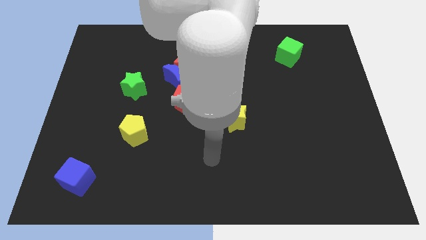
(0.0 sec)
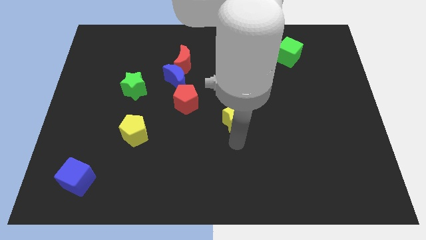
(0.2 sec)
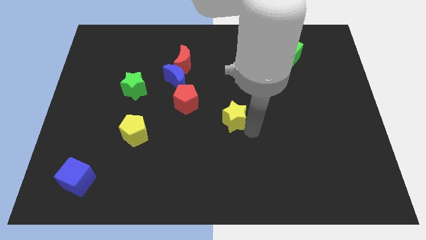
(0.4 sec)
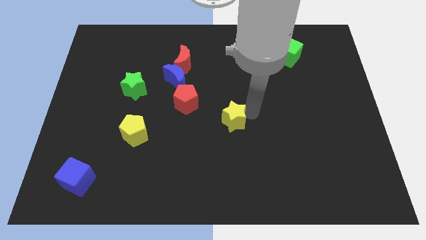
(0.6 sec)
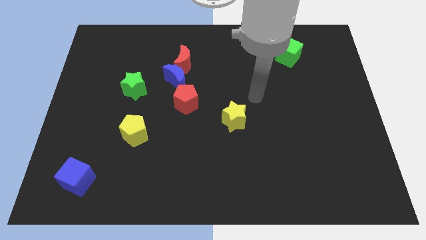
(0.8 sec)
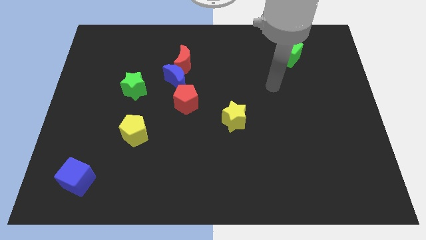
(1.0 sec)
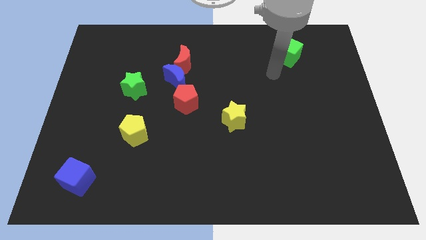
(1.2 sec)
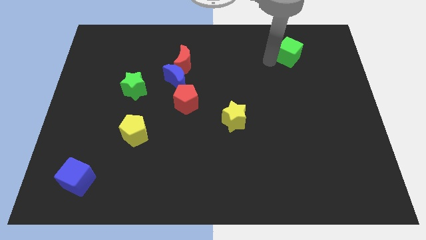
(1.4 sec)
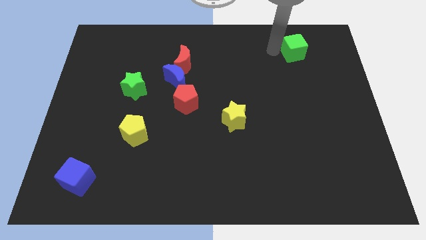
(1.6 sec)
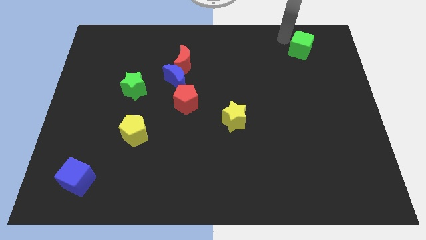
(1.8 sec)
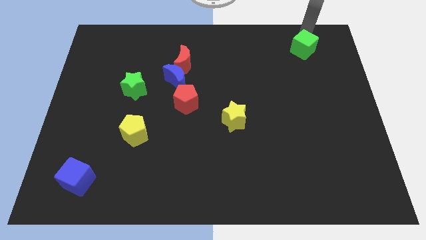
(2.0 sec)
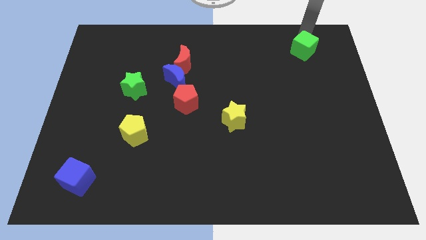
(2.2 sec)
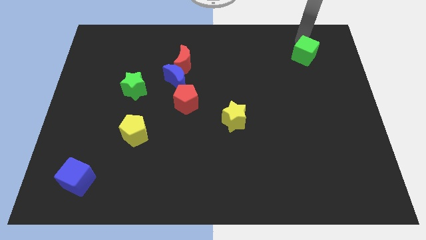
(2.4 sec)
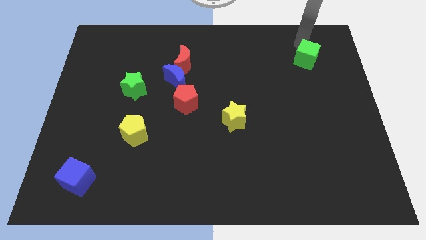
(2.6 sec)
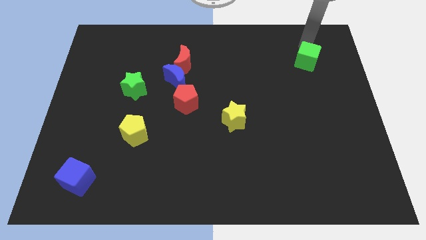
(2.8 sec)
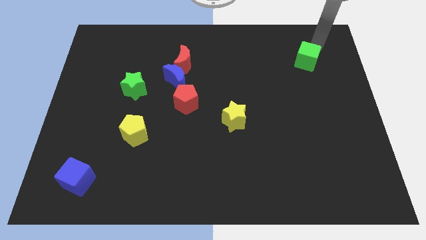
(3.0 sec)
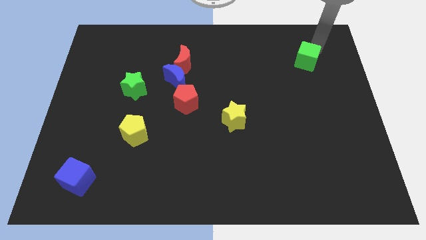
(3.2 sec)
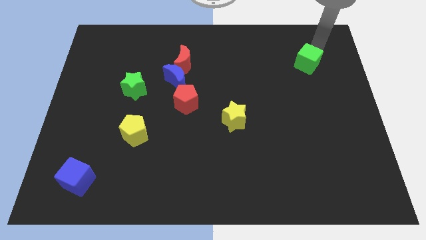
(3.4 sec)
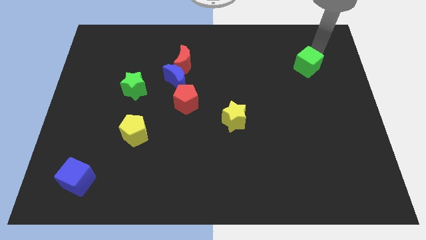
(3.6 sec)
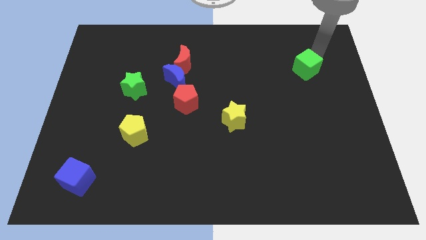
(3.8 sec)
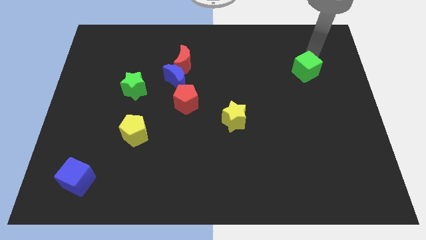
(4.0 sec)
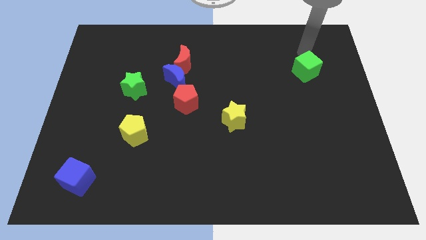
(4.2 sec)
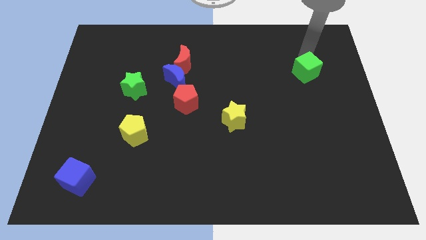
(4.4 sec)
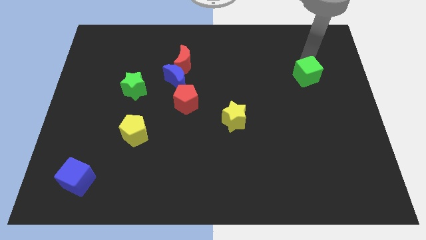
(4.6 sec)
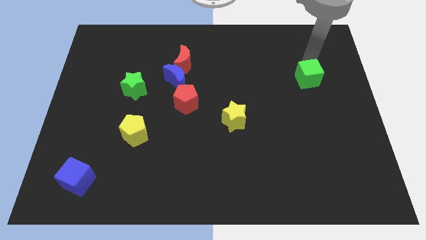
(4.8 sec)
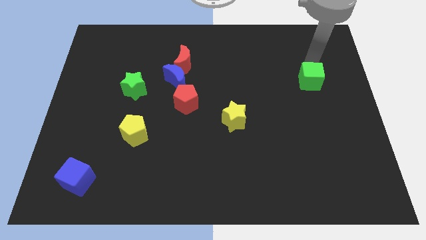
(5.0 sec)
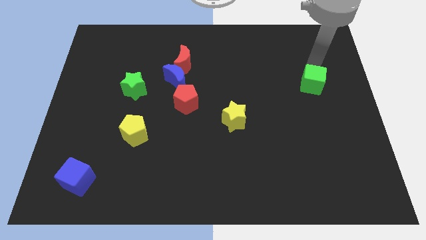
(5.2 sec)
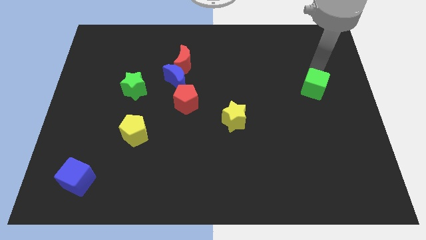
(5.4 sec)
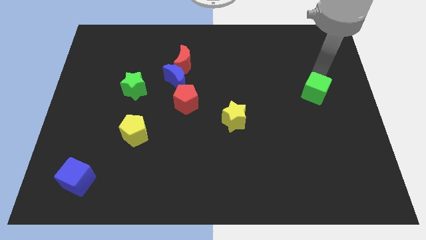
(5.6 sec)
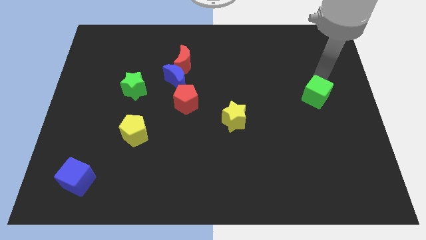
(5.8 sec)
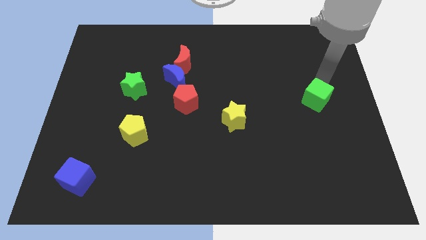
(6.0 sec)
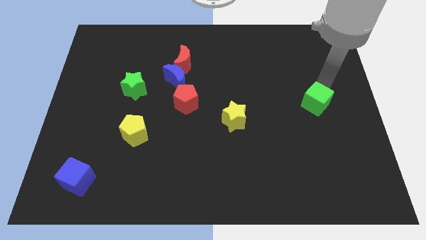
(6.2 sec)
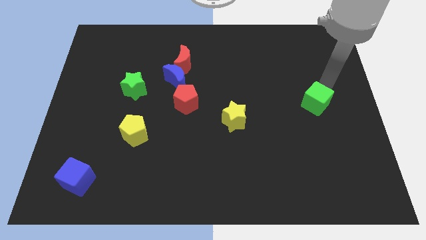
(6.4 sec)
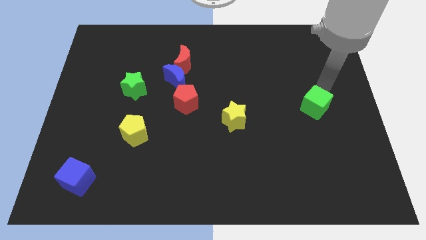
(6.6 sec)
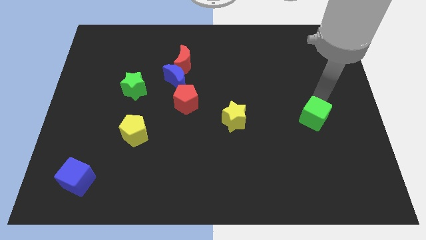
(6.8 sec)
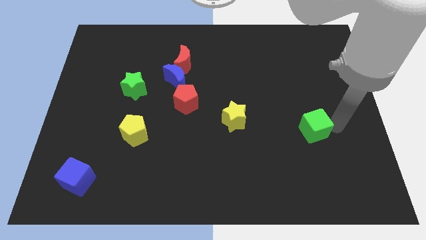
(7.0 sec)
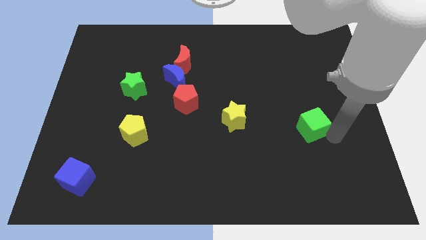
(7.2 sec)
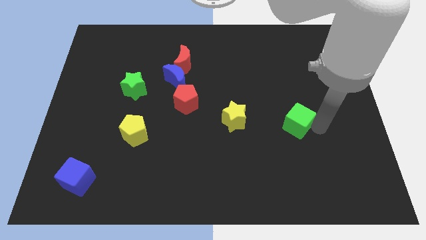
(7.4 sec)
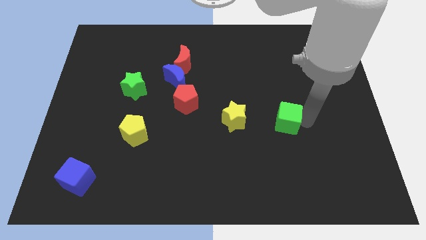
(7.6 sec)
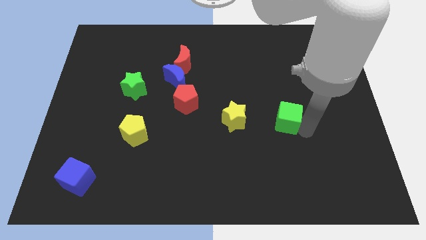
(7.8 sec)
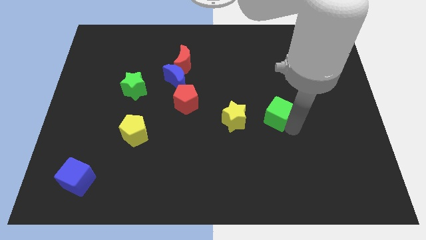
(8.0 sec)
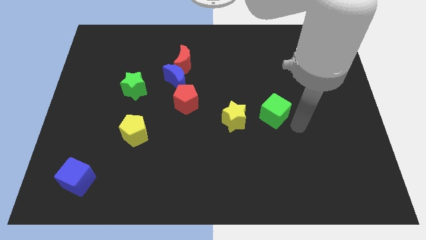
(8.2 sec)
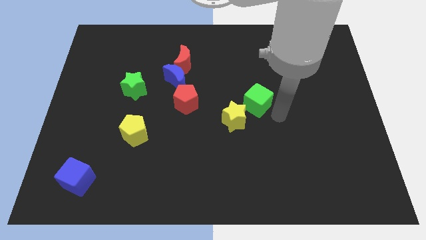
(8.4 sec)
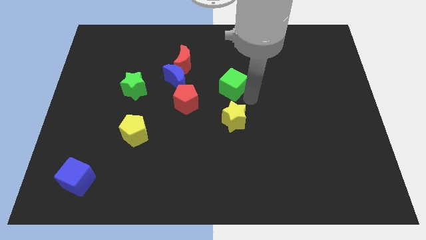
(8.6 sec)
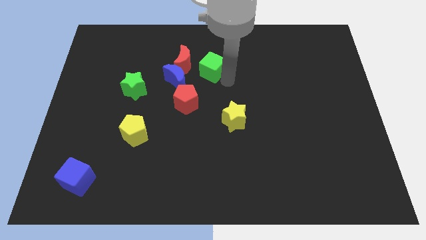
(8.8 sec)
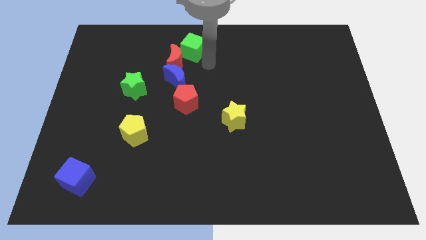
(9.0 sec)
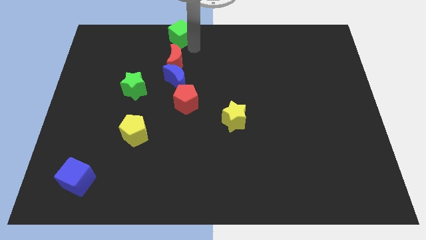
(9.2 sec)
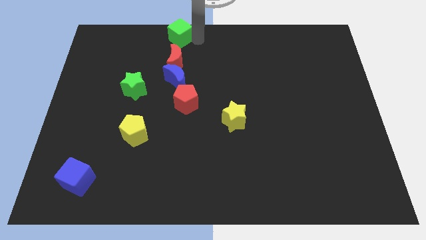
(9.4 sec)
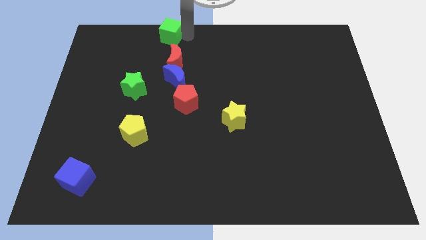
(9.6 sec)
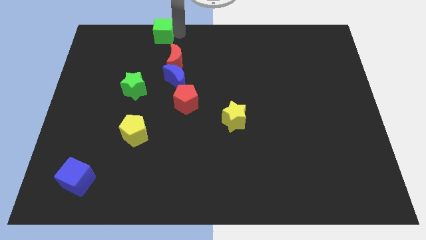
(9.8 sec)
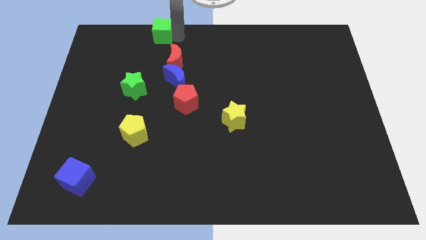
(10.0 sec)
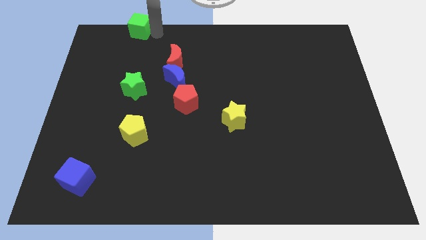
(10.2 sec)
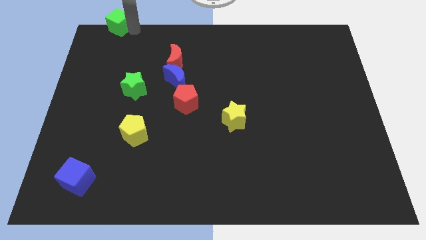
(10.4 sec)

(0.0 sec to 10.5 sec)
push the green cube to the top left of the board

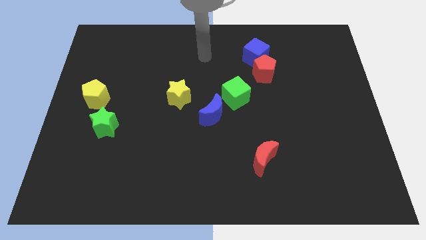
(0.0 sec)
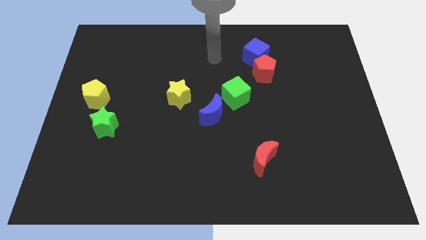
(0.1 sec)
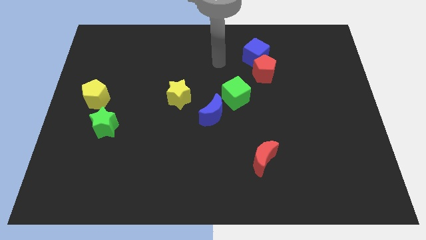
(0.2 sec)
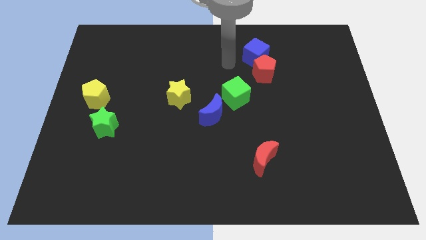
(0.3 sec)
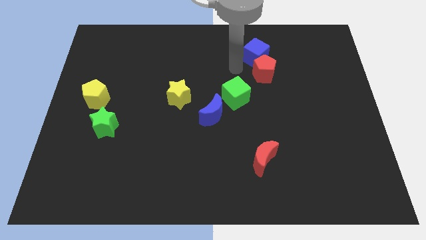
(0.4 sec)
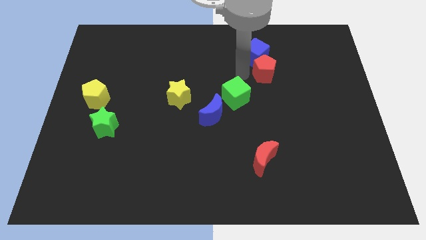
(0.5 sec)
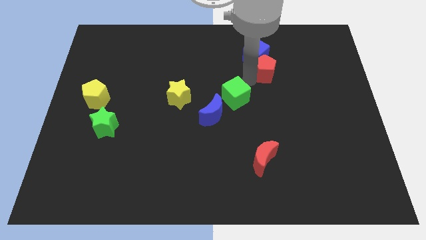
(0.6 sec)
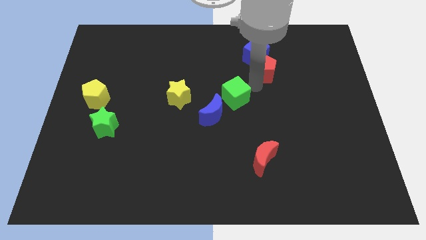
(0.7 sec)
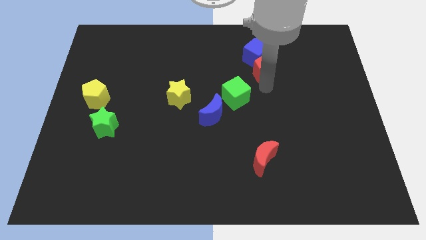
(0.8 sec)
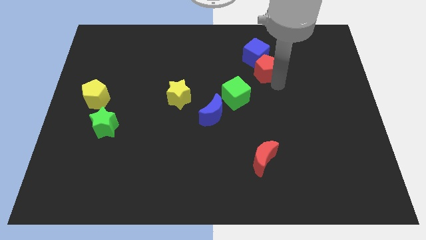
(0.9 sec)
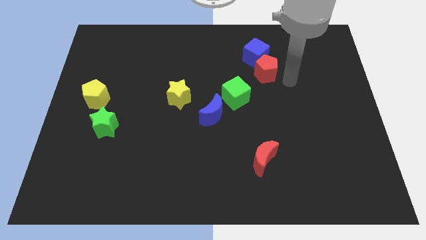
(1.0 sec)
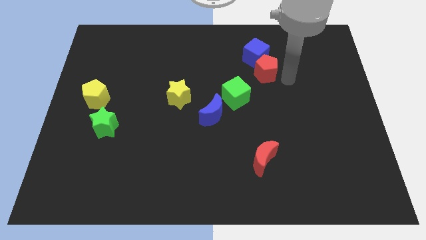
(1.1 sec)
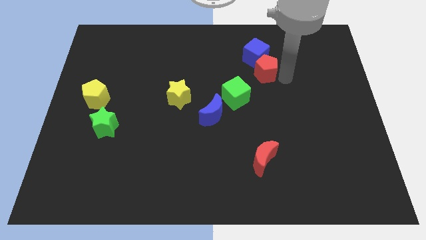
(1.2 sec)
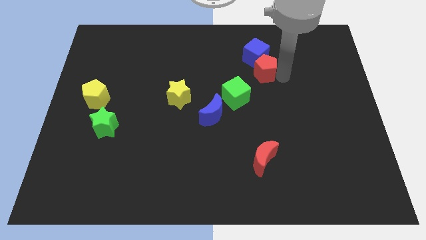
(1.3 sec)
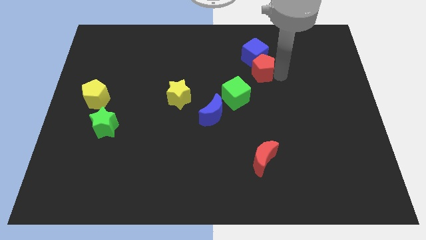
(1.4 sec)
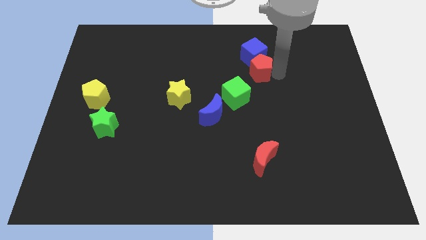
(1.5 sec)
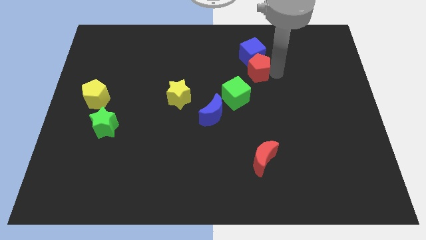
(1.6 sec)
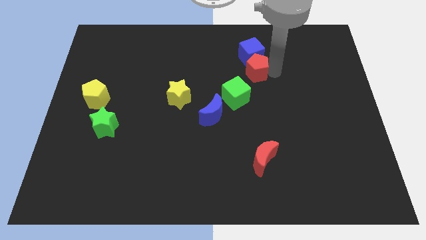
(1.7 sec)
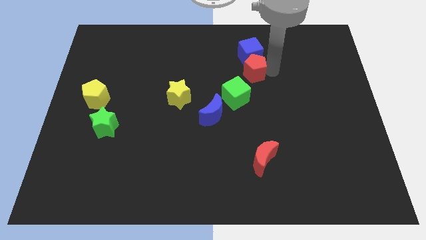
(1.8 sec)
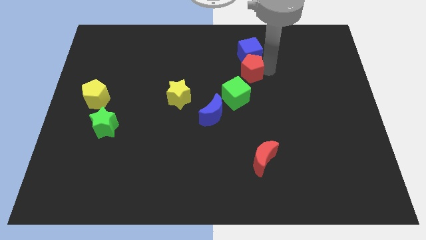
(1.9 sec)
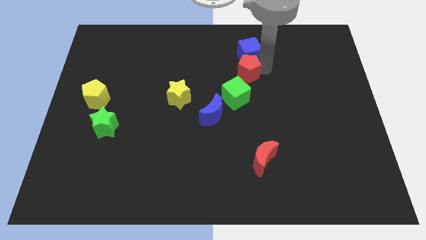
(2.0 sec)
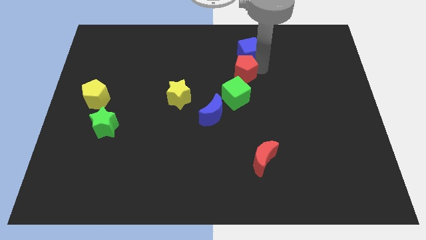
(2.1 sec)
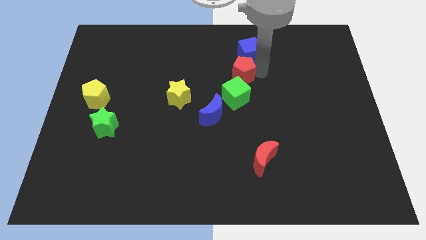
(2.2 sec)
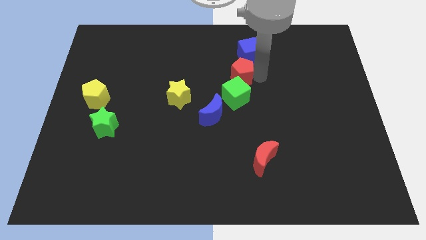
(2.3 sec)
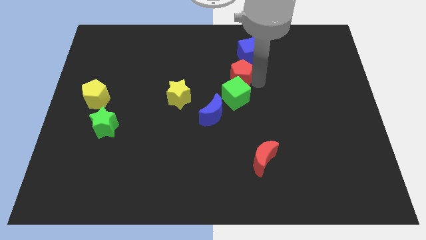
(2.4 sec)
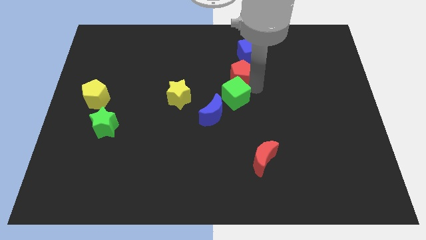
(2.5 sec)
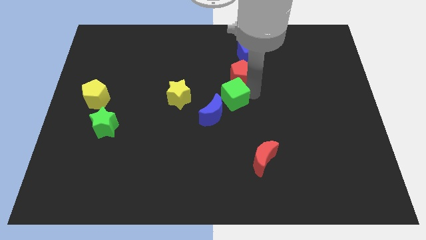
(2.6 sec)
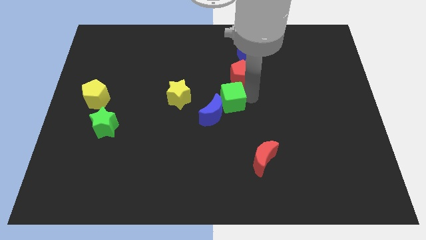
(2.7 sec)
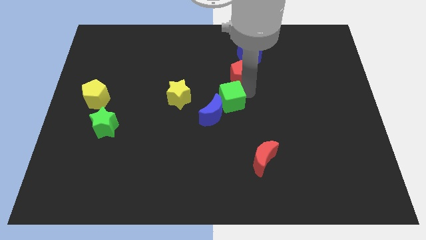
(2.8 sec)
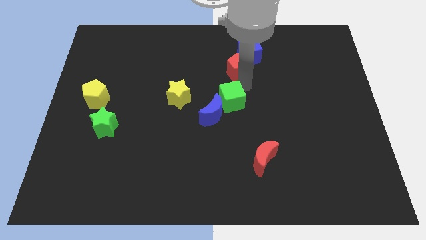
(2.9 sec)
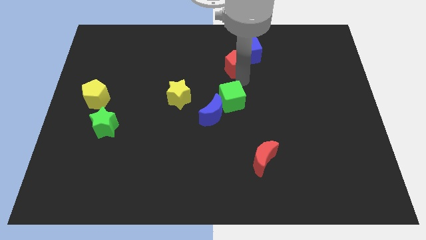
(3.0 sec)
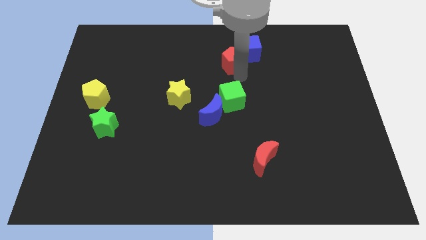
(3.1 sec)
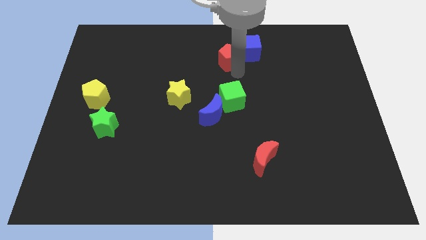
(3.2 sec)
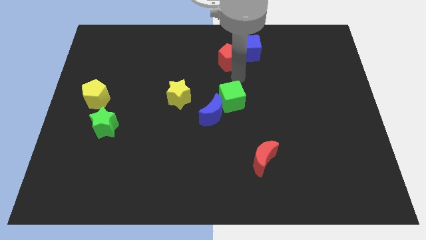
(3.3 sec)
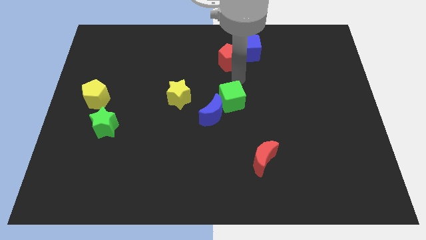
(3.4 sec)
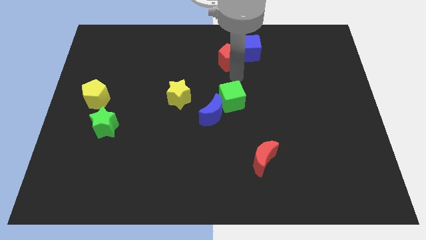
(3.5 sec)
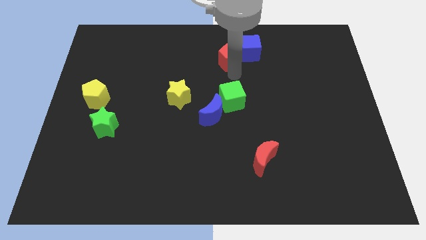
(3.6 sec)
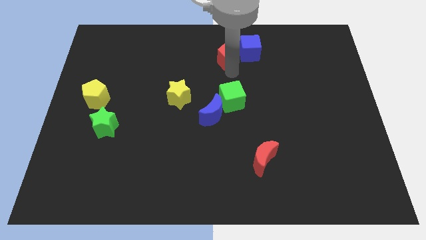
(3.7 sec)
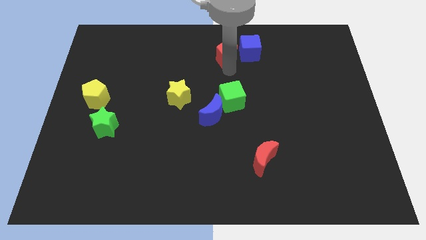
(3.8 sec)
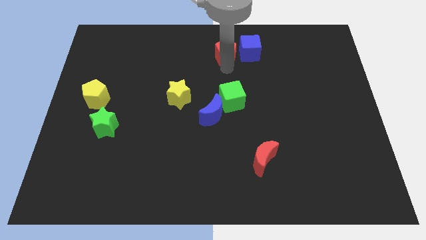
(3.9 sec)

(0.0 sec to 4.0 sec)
slide the red pentagon to the top
